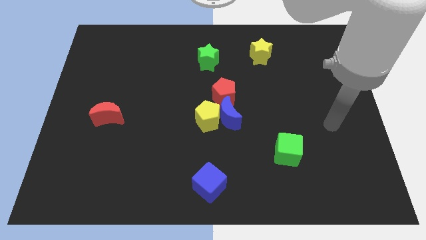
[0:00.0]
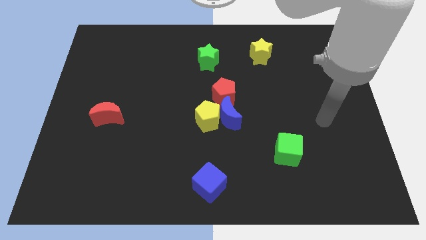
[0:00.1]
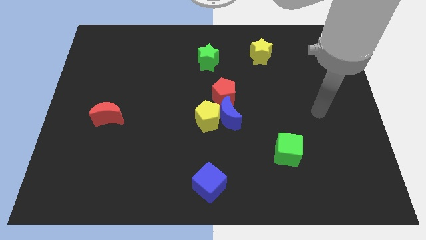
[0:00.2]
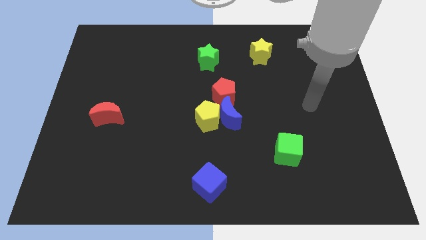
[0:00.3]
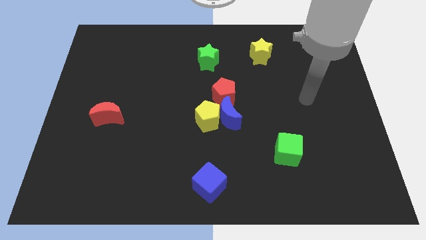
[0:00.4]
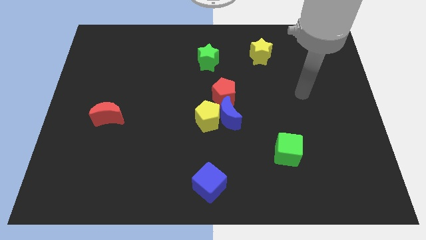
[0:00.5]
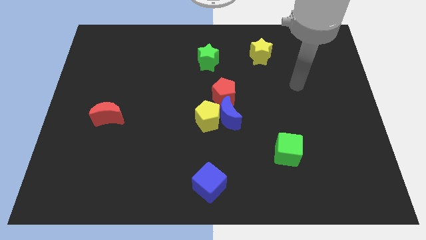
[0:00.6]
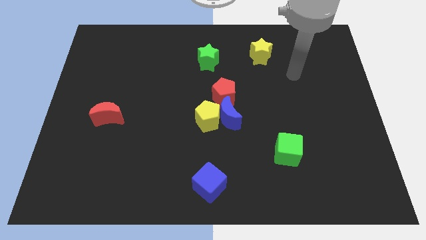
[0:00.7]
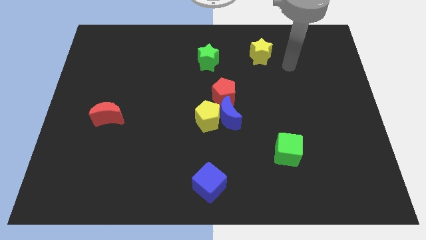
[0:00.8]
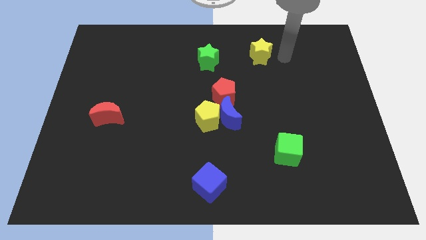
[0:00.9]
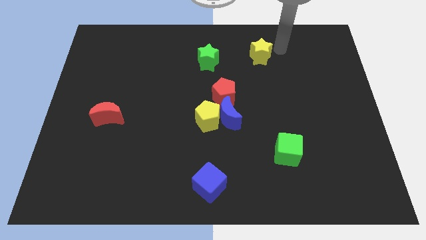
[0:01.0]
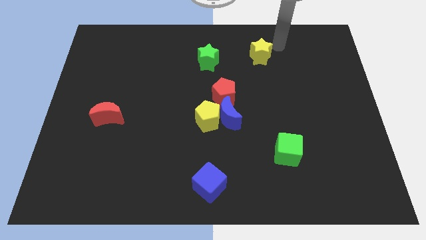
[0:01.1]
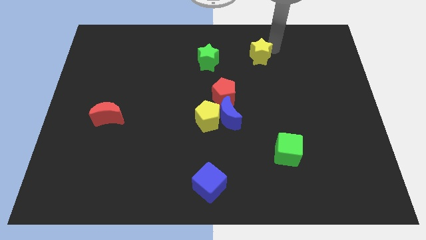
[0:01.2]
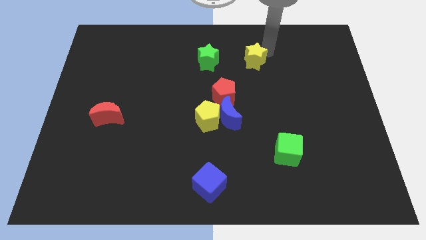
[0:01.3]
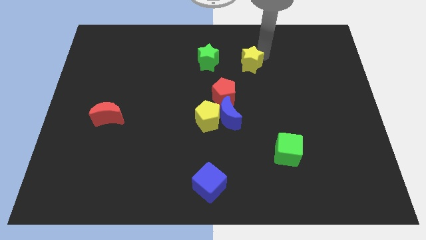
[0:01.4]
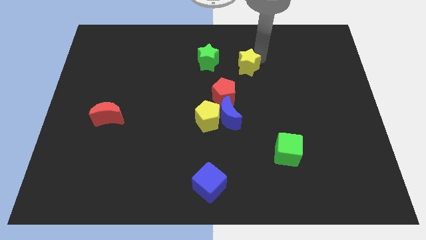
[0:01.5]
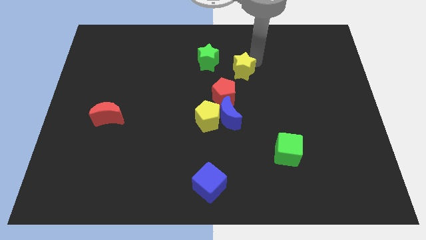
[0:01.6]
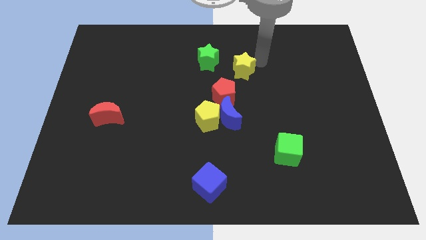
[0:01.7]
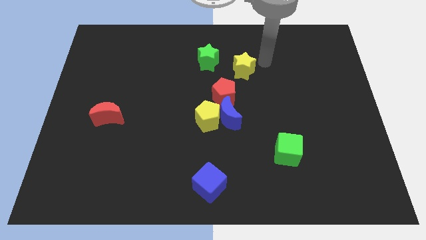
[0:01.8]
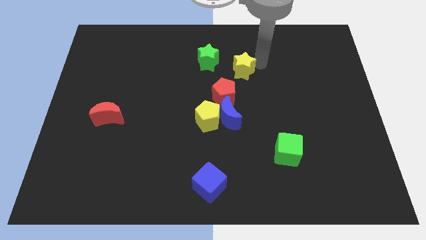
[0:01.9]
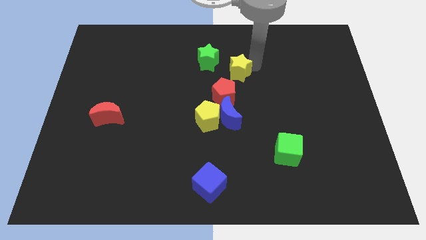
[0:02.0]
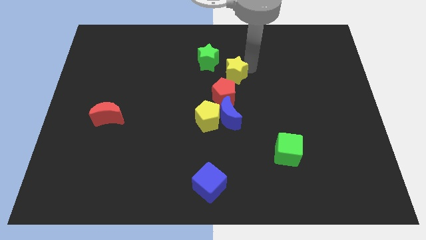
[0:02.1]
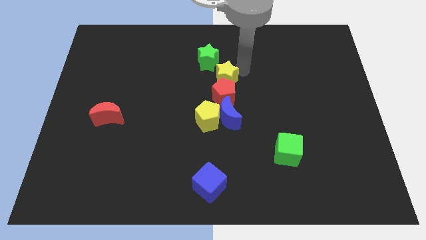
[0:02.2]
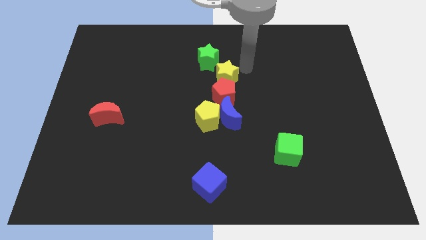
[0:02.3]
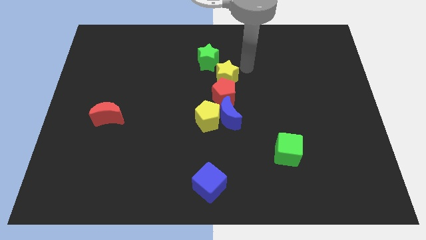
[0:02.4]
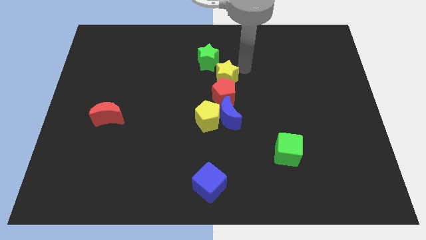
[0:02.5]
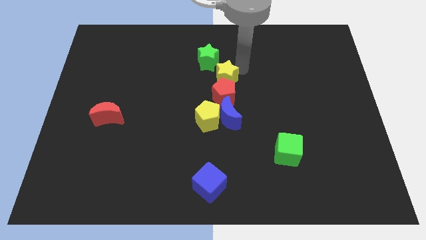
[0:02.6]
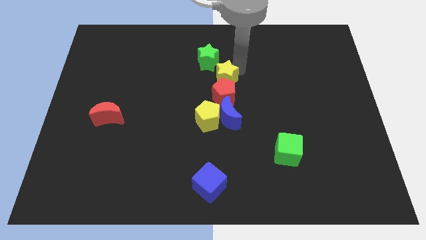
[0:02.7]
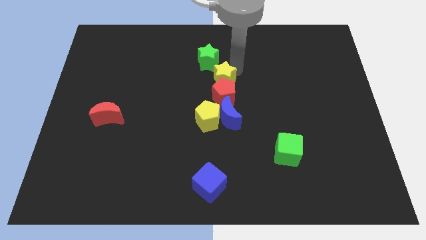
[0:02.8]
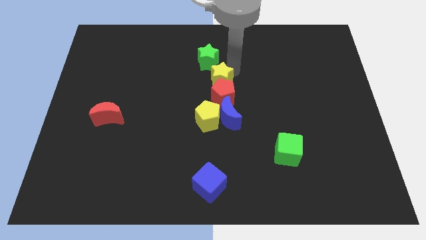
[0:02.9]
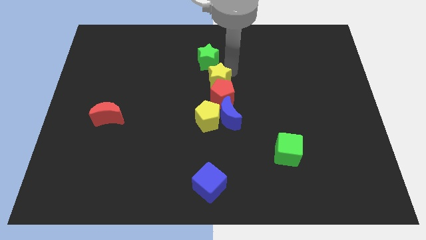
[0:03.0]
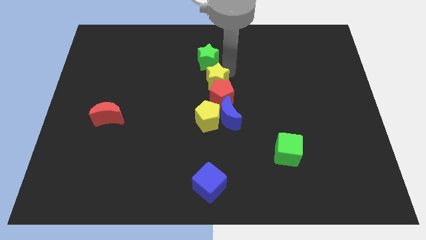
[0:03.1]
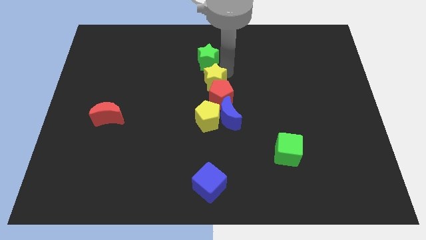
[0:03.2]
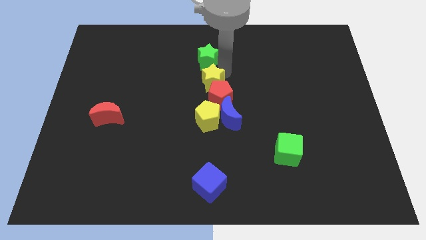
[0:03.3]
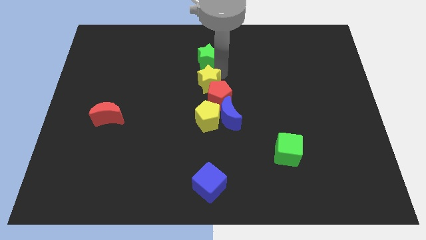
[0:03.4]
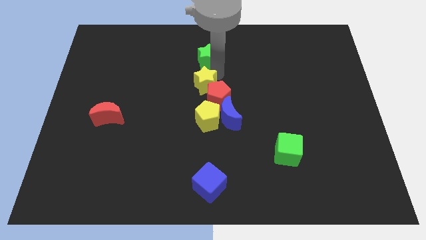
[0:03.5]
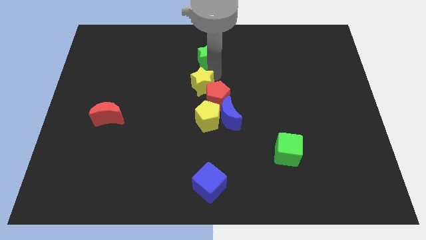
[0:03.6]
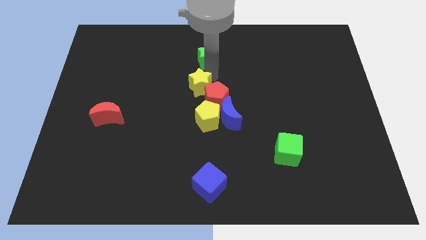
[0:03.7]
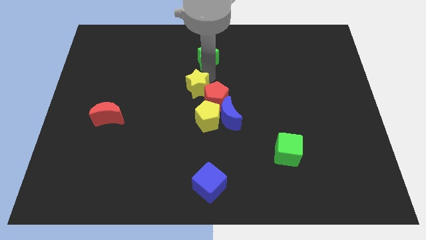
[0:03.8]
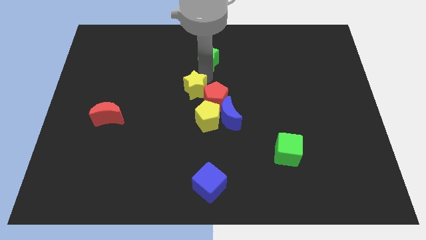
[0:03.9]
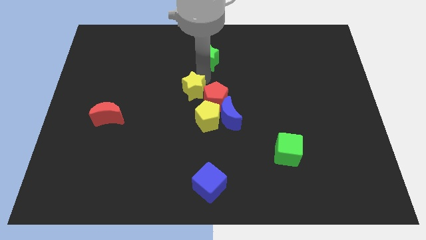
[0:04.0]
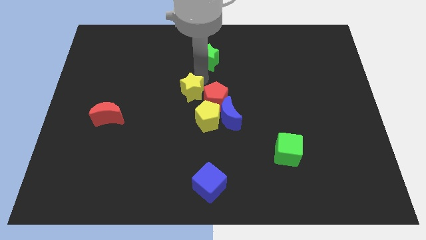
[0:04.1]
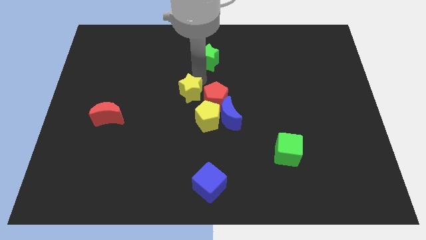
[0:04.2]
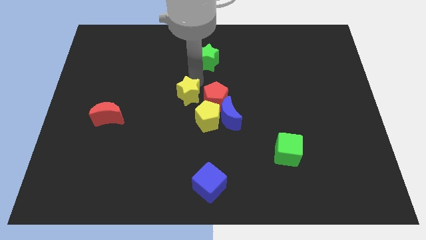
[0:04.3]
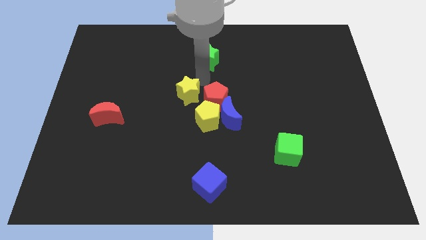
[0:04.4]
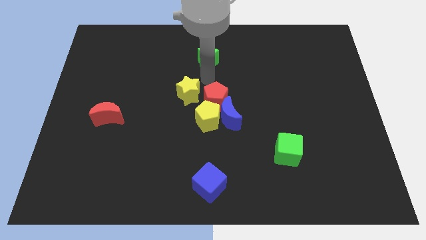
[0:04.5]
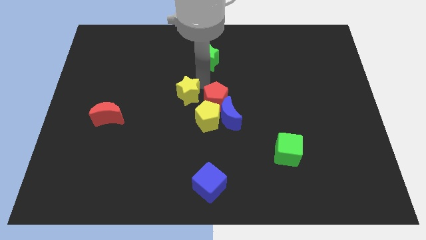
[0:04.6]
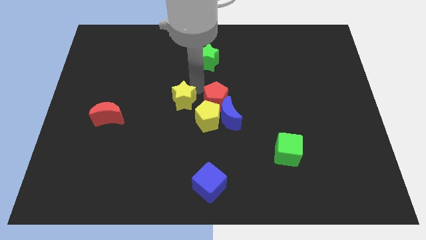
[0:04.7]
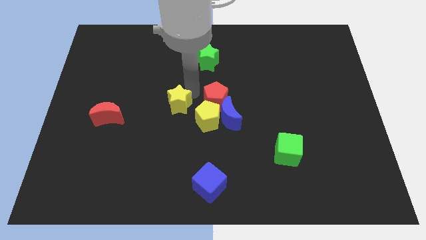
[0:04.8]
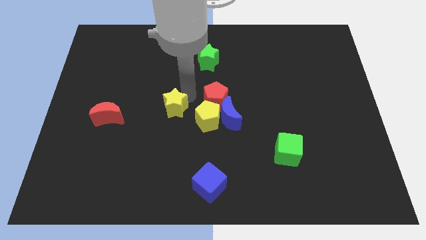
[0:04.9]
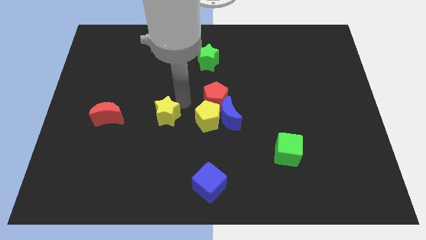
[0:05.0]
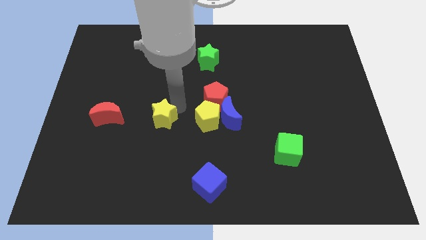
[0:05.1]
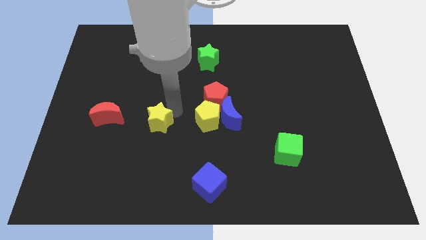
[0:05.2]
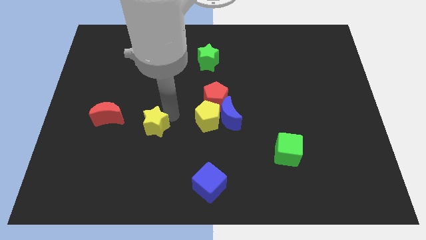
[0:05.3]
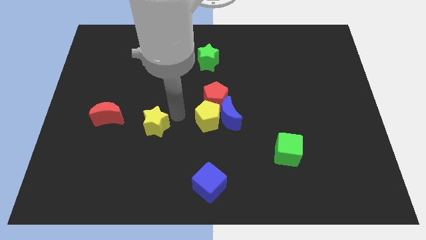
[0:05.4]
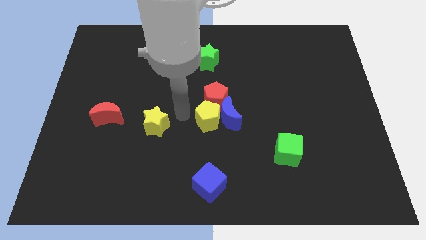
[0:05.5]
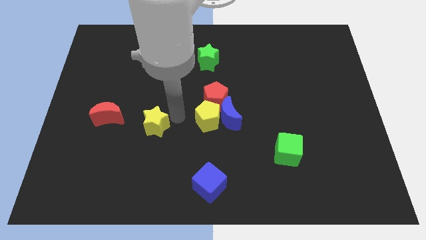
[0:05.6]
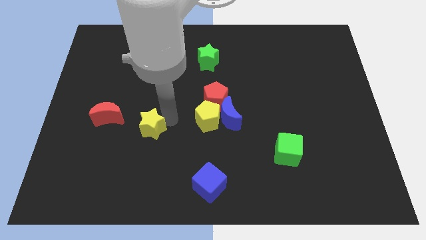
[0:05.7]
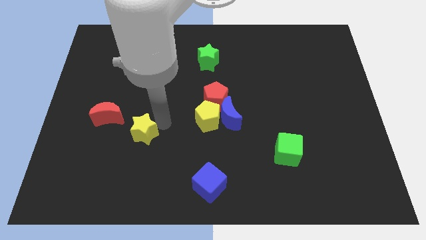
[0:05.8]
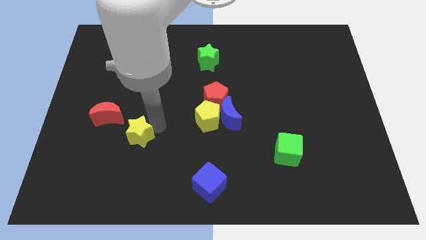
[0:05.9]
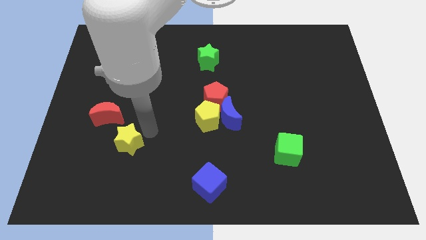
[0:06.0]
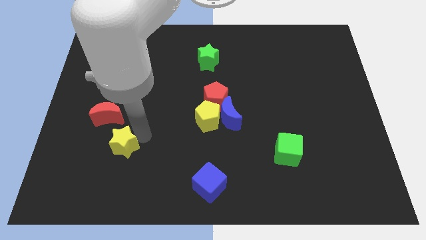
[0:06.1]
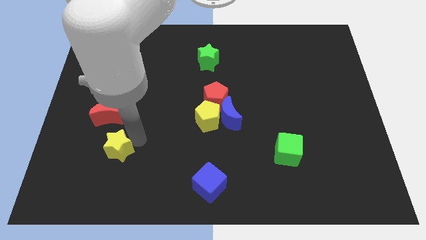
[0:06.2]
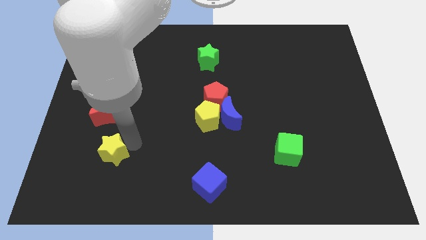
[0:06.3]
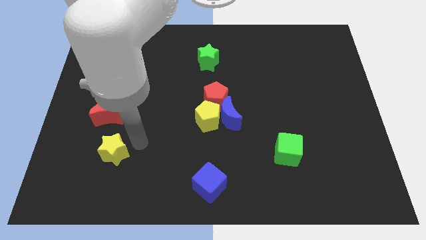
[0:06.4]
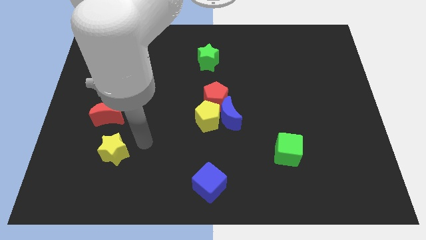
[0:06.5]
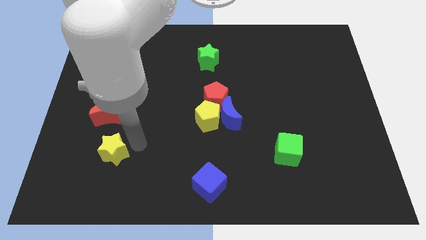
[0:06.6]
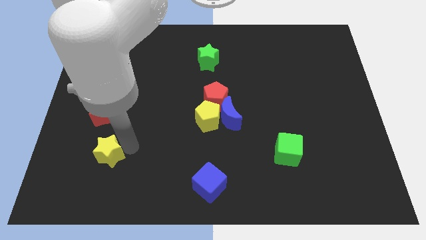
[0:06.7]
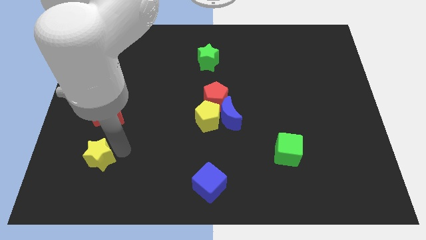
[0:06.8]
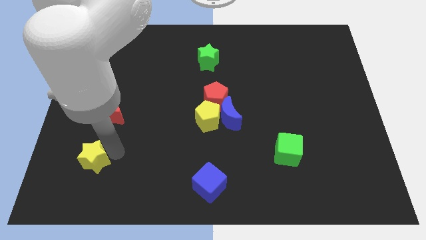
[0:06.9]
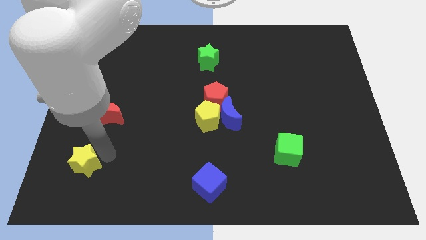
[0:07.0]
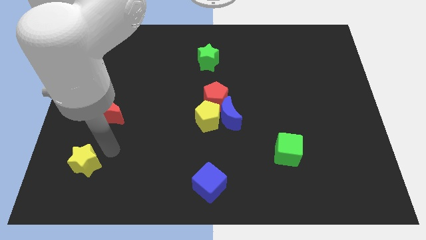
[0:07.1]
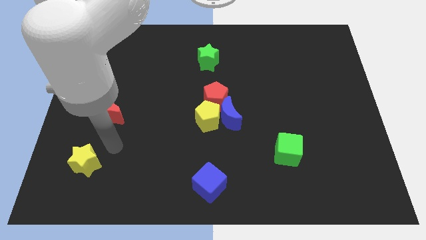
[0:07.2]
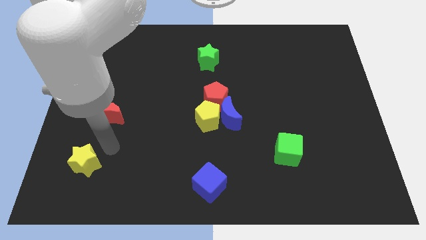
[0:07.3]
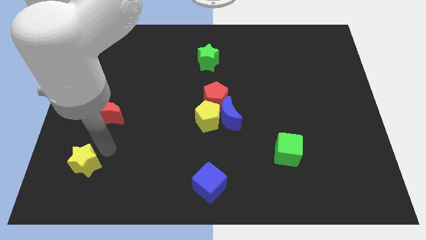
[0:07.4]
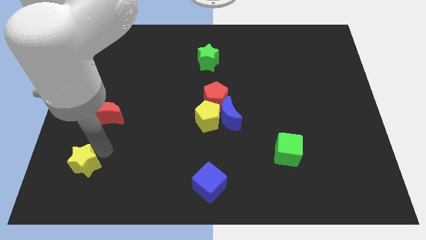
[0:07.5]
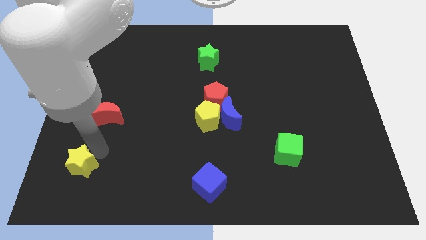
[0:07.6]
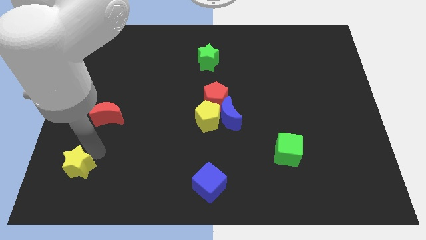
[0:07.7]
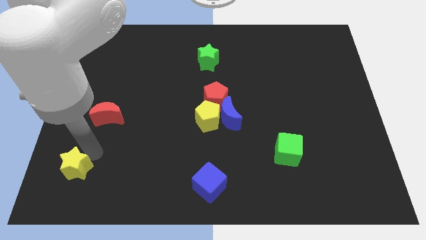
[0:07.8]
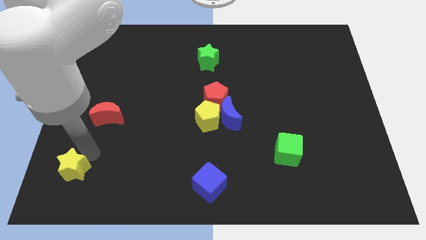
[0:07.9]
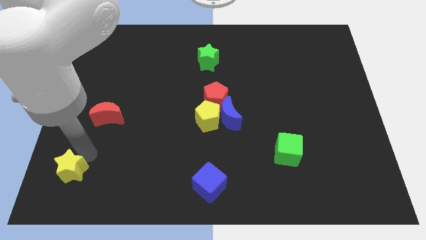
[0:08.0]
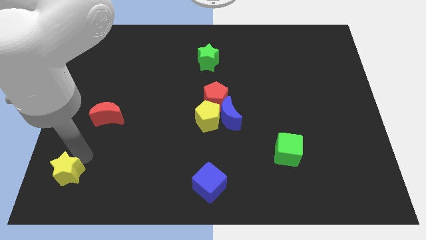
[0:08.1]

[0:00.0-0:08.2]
slide the yellow star to the lower left corner
